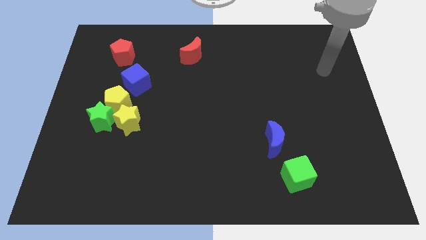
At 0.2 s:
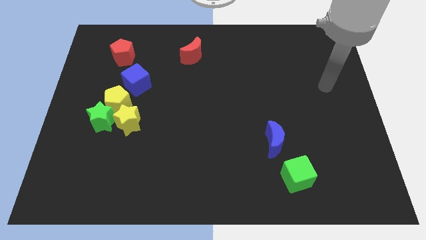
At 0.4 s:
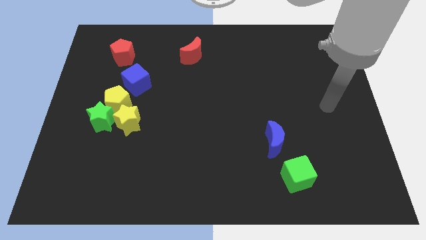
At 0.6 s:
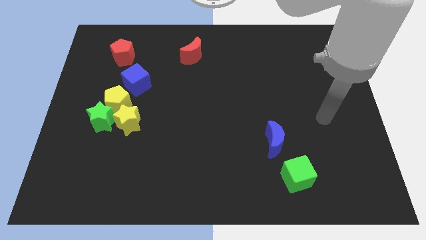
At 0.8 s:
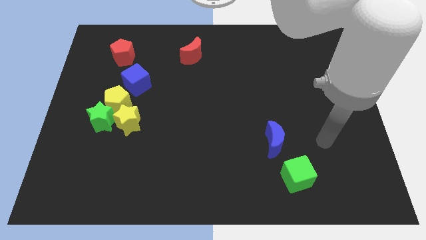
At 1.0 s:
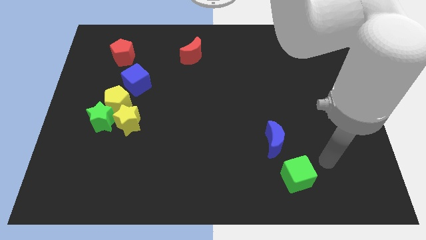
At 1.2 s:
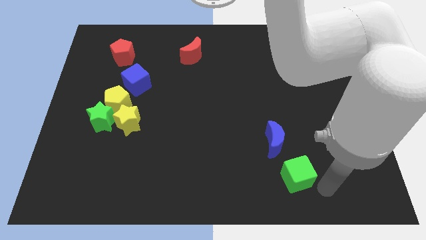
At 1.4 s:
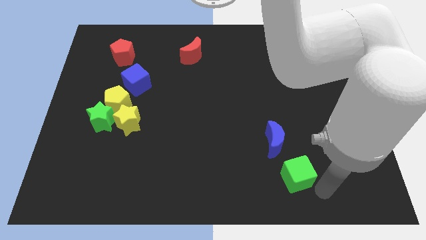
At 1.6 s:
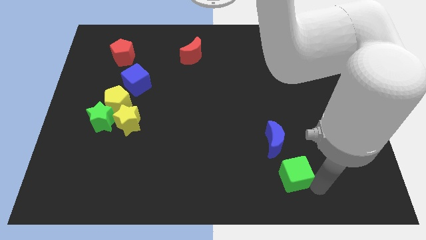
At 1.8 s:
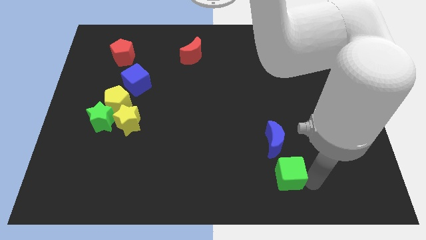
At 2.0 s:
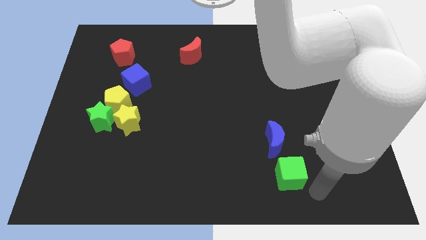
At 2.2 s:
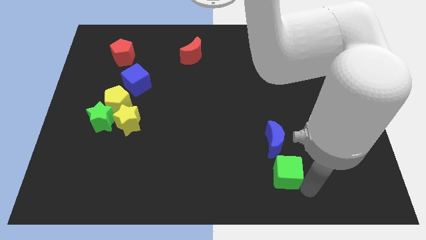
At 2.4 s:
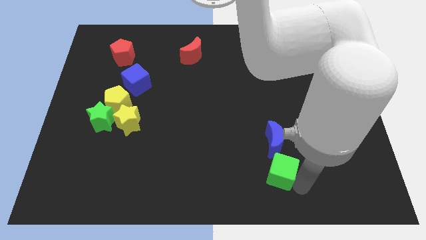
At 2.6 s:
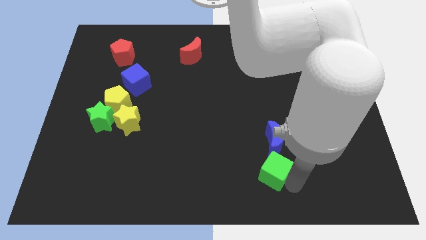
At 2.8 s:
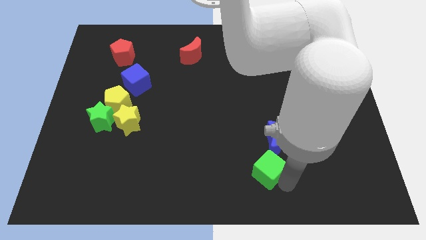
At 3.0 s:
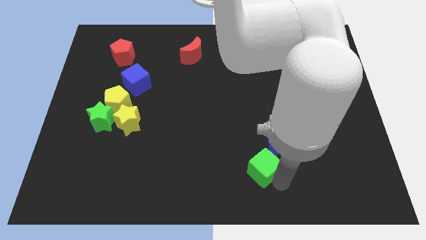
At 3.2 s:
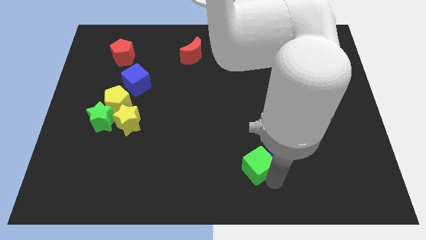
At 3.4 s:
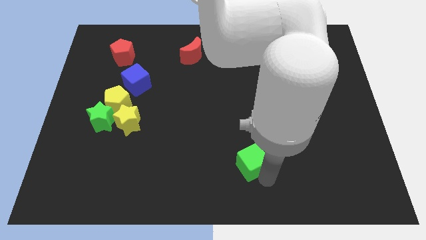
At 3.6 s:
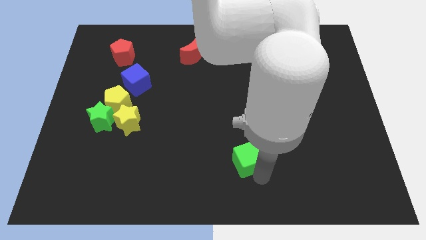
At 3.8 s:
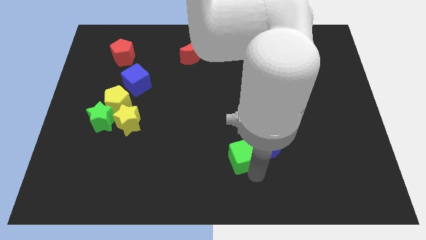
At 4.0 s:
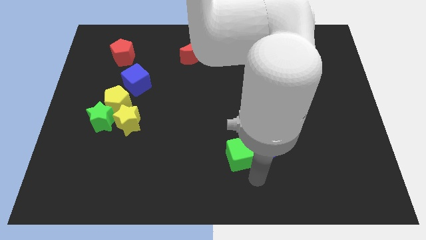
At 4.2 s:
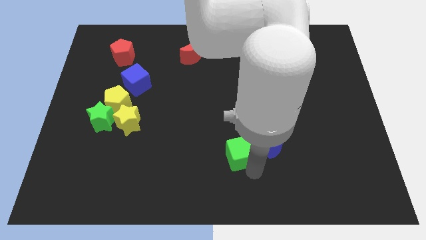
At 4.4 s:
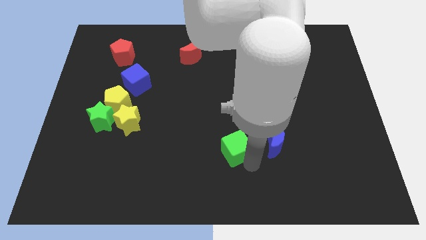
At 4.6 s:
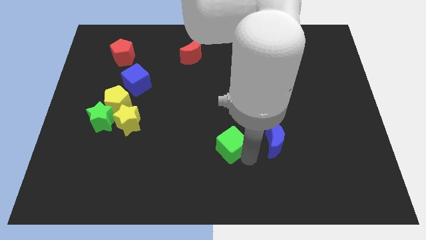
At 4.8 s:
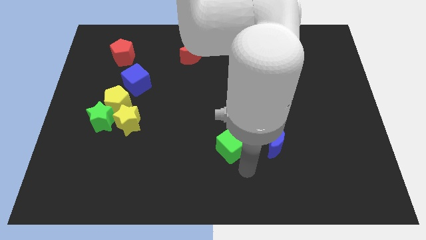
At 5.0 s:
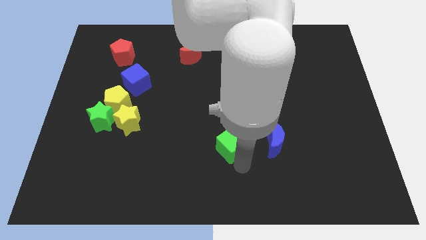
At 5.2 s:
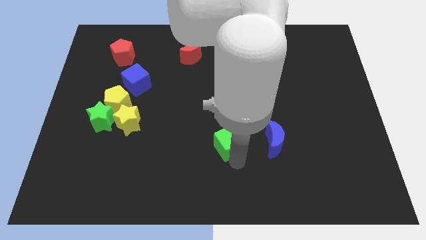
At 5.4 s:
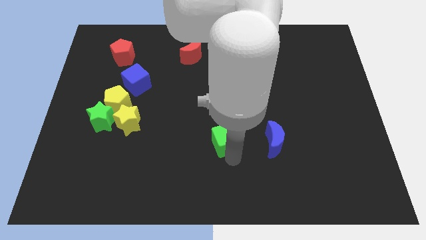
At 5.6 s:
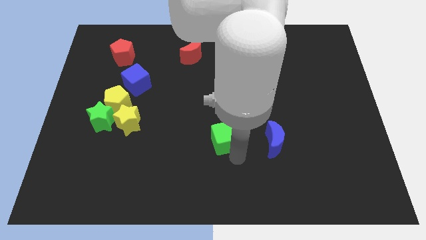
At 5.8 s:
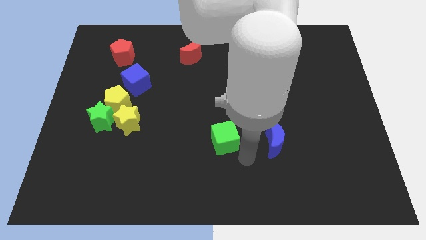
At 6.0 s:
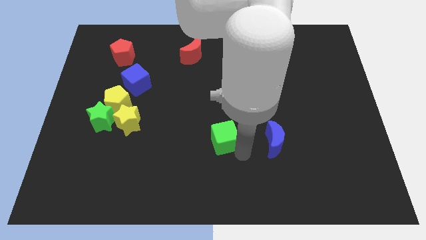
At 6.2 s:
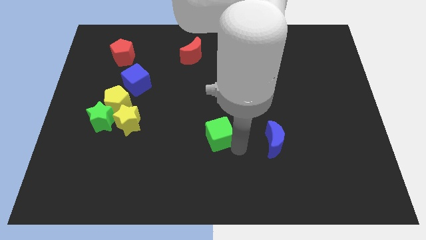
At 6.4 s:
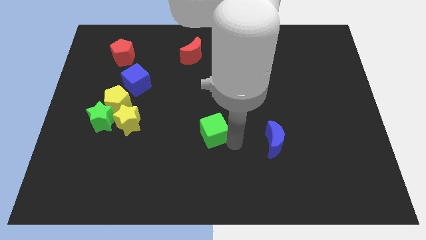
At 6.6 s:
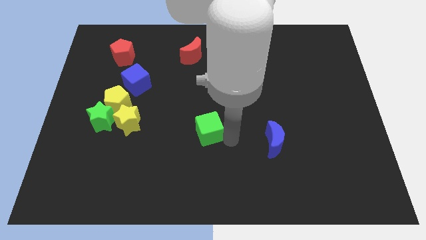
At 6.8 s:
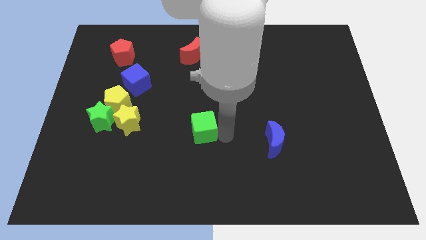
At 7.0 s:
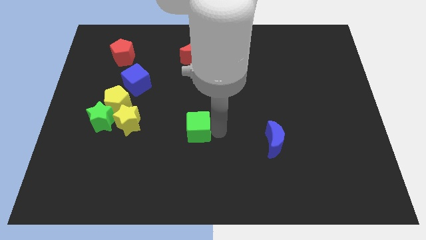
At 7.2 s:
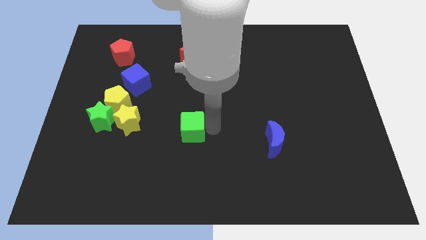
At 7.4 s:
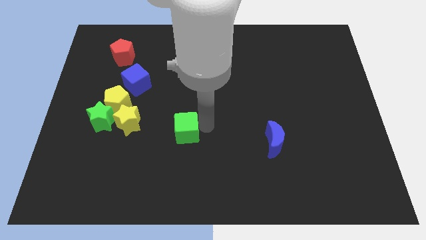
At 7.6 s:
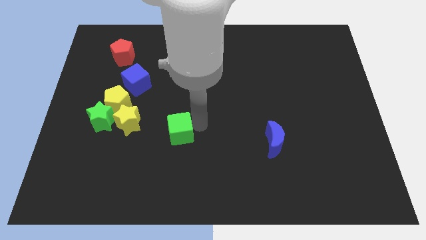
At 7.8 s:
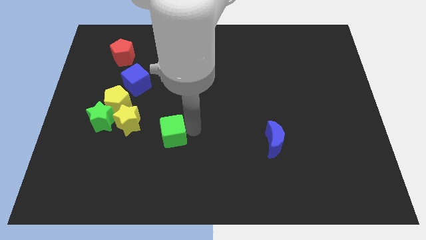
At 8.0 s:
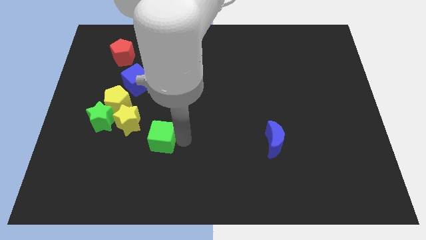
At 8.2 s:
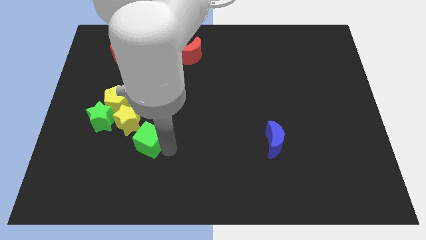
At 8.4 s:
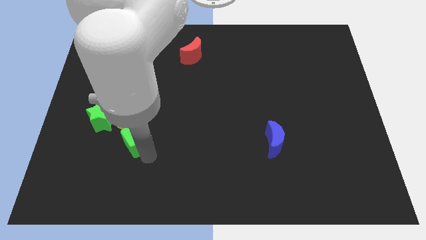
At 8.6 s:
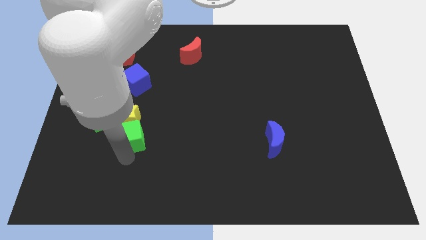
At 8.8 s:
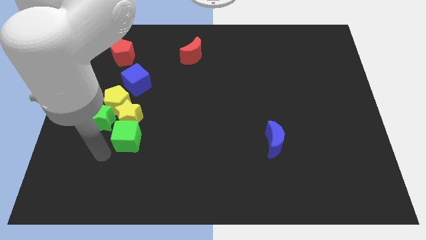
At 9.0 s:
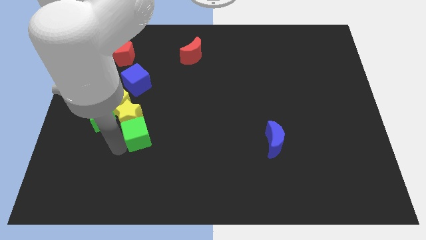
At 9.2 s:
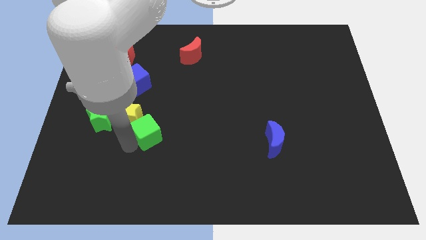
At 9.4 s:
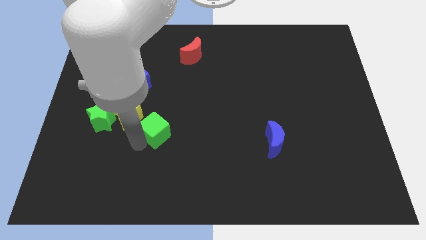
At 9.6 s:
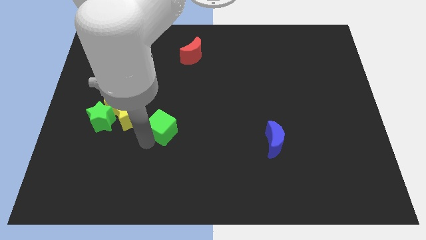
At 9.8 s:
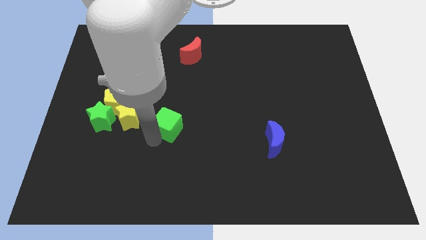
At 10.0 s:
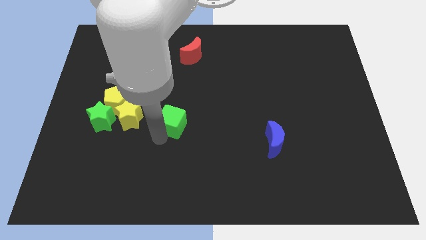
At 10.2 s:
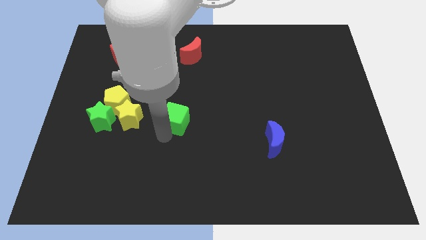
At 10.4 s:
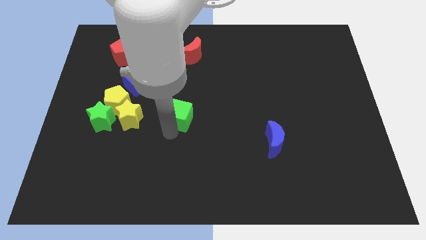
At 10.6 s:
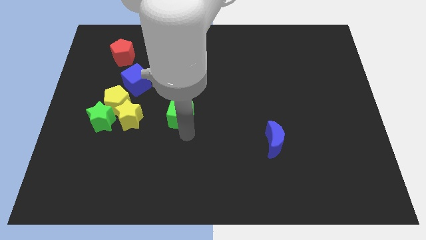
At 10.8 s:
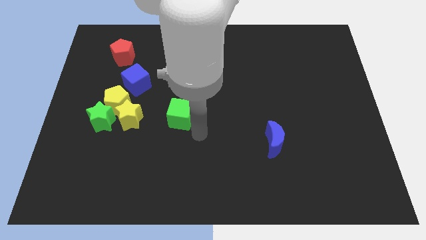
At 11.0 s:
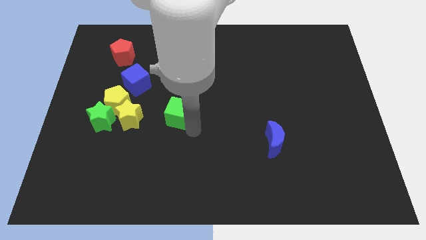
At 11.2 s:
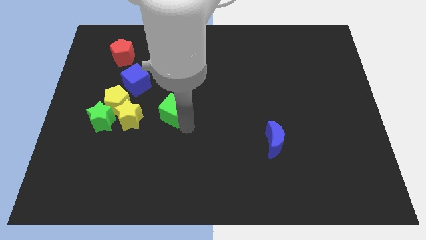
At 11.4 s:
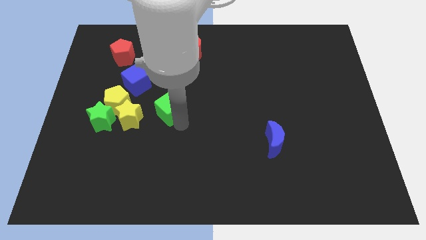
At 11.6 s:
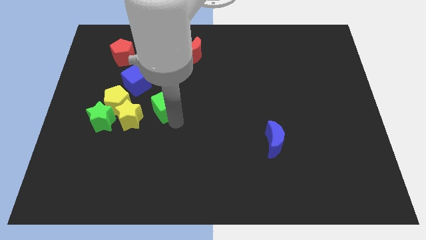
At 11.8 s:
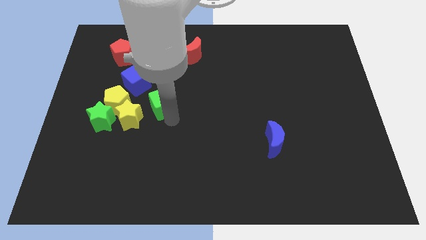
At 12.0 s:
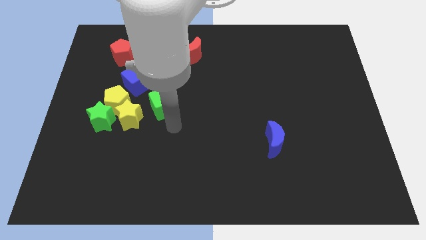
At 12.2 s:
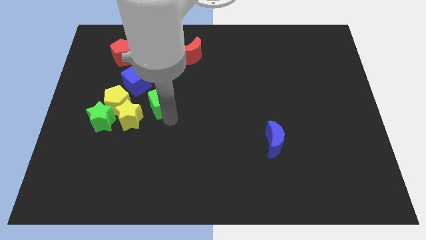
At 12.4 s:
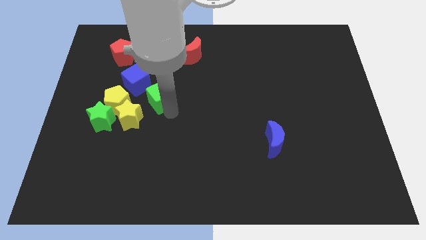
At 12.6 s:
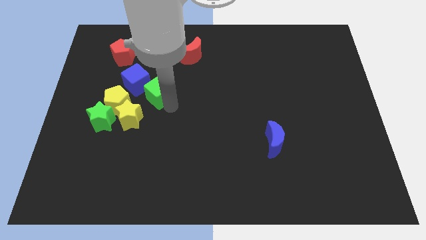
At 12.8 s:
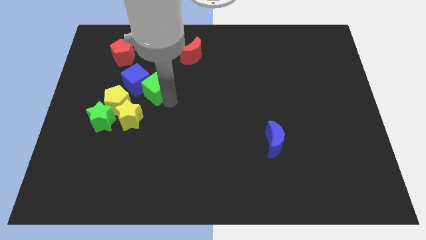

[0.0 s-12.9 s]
slide the green cube close to the blue cube

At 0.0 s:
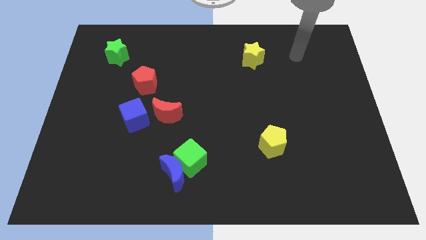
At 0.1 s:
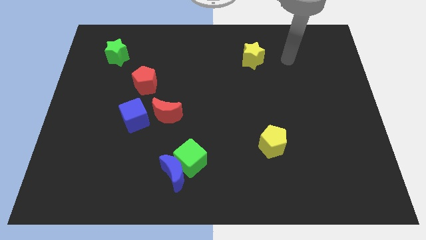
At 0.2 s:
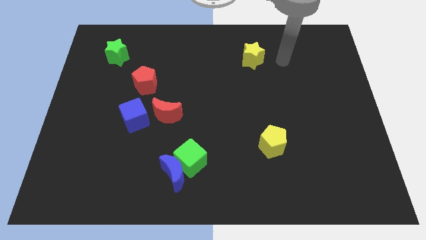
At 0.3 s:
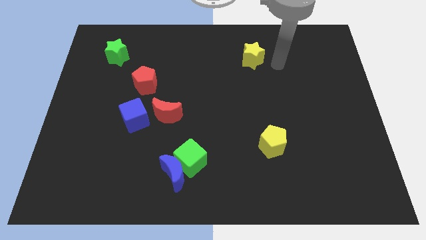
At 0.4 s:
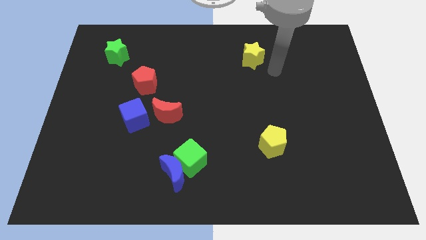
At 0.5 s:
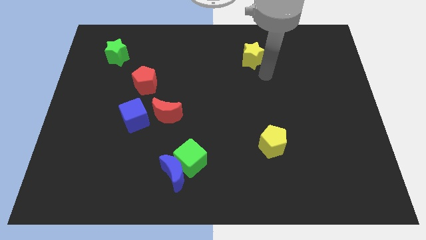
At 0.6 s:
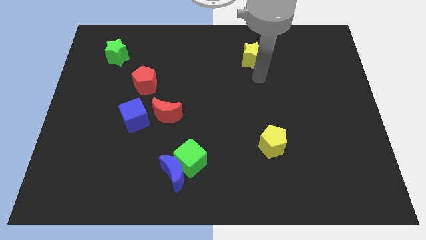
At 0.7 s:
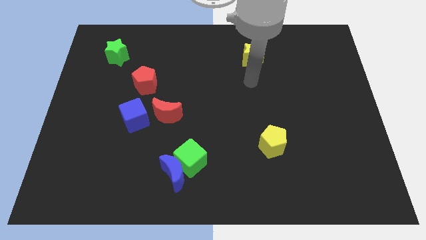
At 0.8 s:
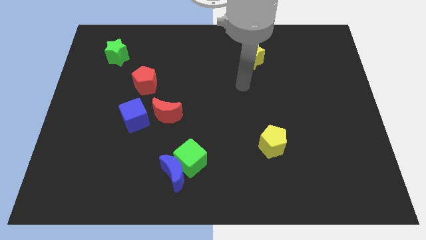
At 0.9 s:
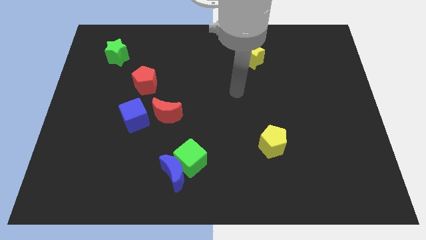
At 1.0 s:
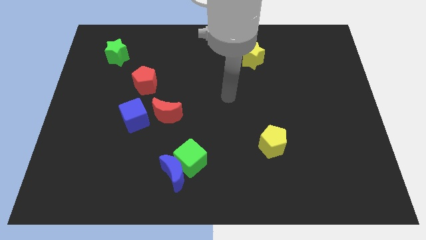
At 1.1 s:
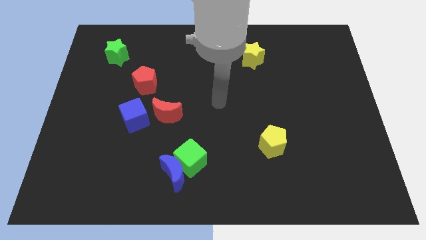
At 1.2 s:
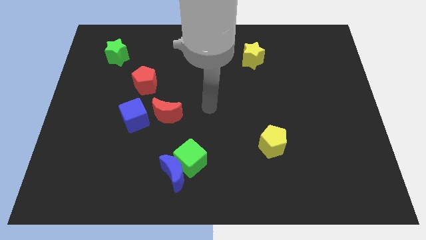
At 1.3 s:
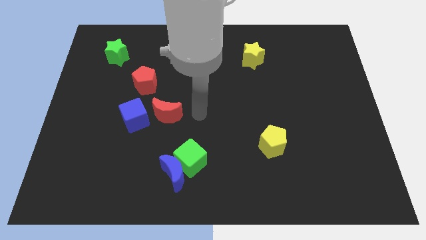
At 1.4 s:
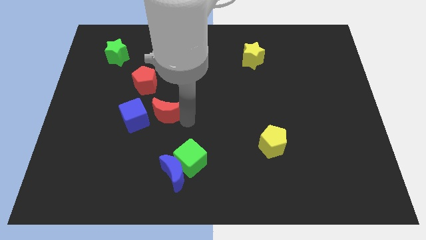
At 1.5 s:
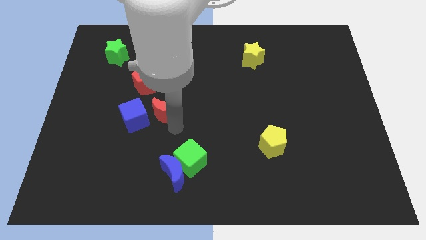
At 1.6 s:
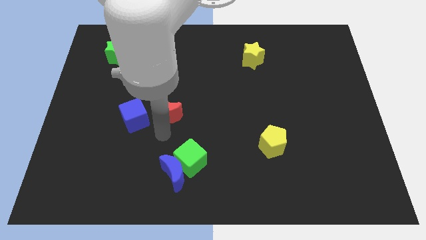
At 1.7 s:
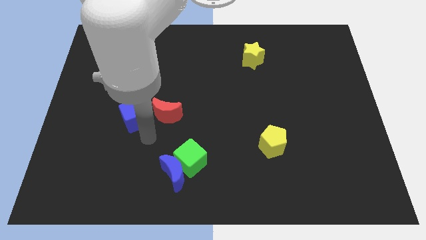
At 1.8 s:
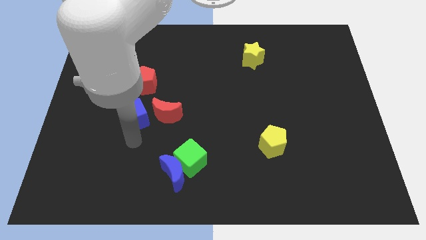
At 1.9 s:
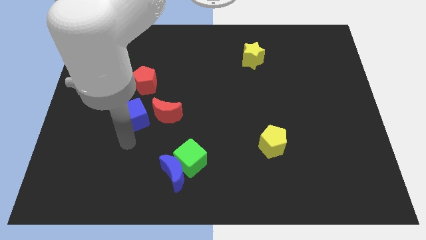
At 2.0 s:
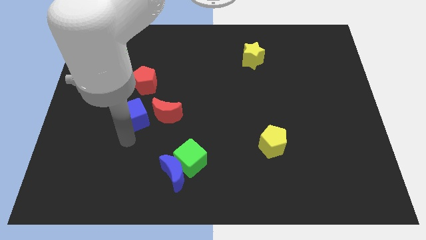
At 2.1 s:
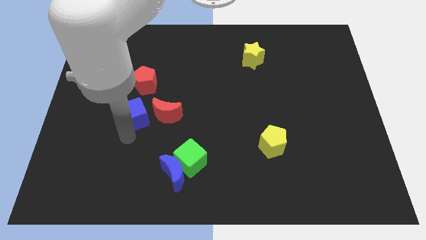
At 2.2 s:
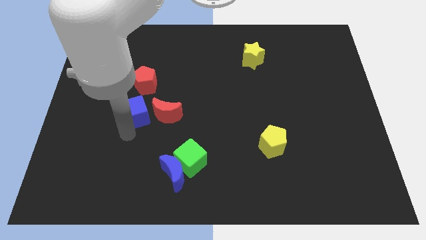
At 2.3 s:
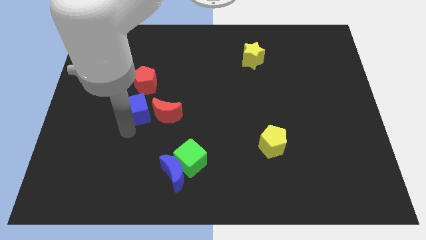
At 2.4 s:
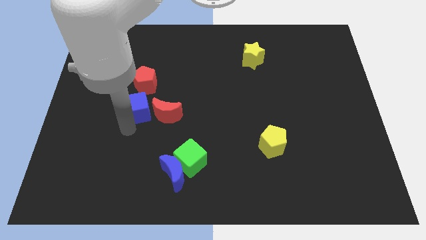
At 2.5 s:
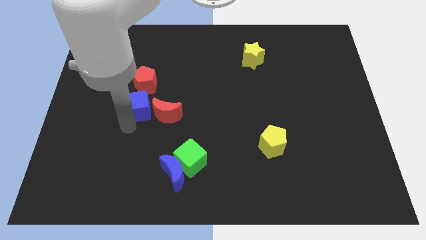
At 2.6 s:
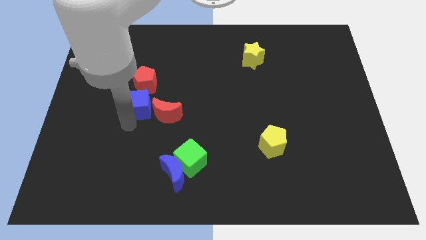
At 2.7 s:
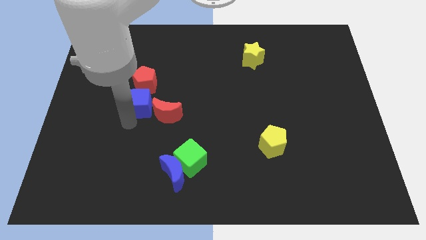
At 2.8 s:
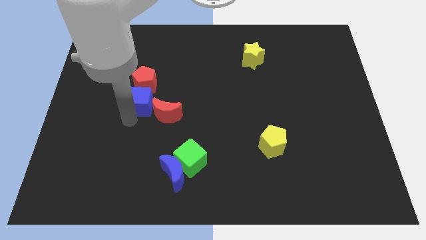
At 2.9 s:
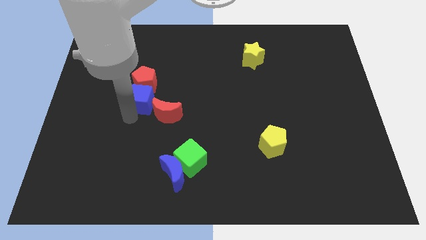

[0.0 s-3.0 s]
slide the blue cube close to the red pentagon
